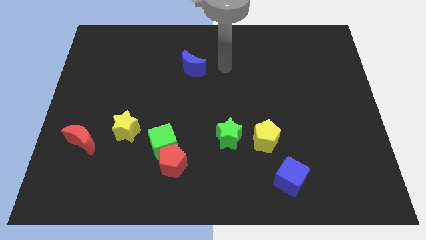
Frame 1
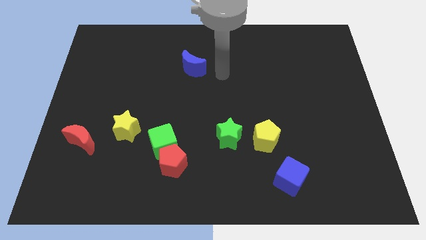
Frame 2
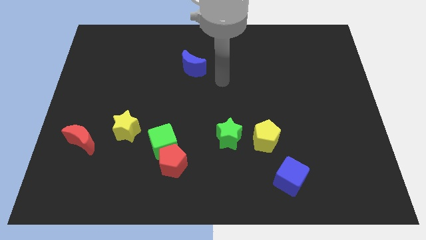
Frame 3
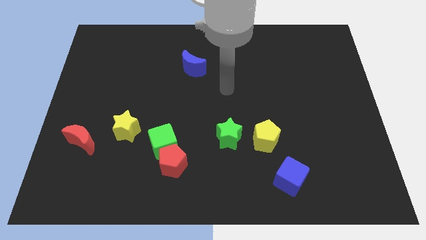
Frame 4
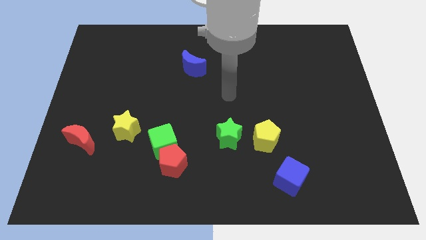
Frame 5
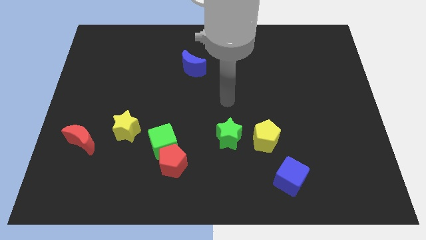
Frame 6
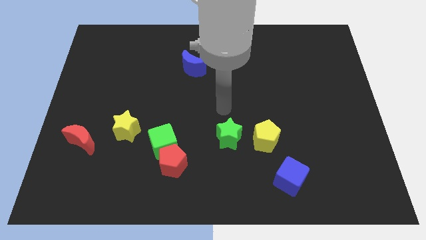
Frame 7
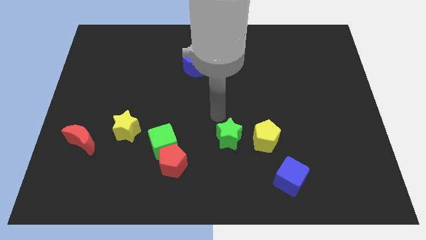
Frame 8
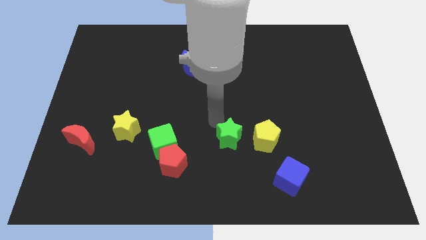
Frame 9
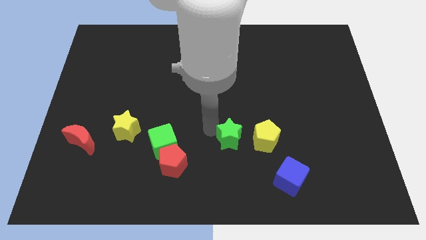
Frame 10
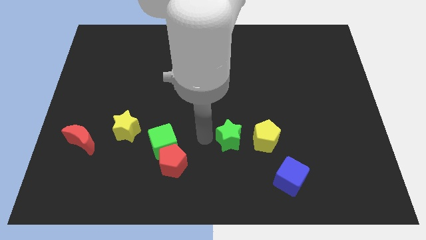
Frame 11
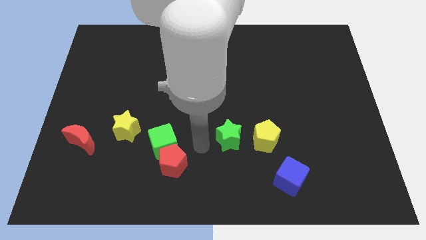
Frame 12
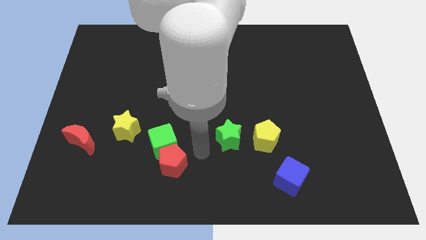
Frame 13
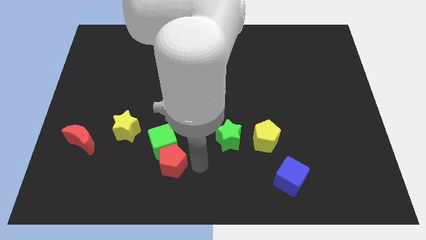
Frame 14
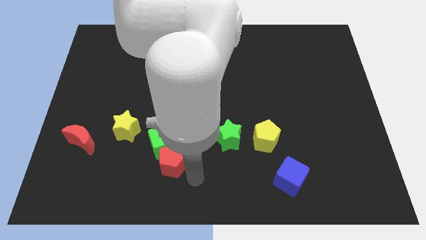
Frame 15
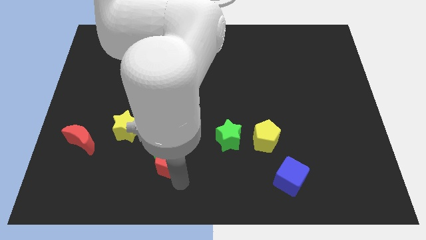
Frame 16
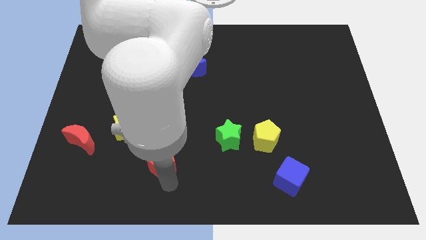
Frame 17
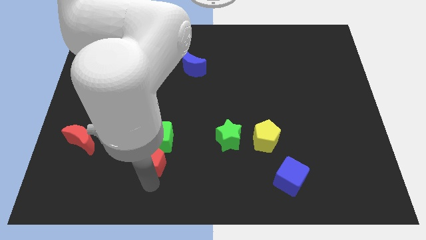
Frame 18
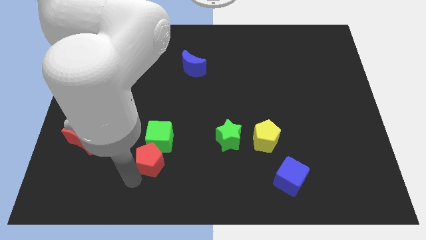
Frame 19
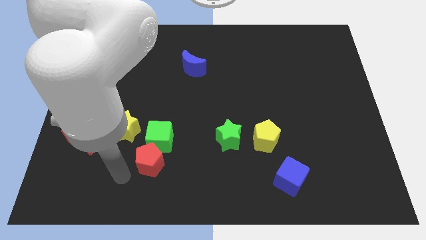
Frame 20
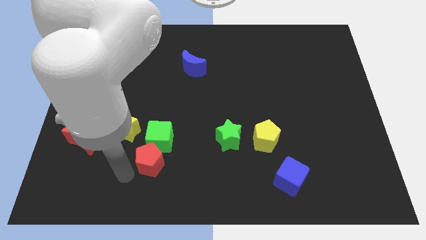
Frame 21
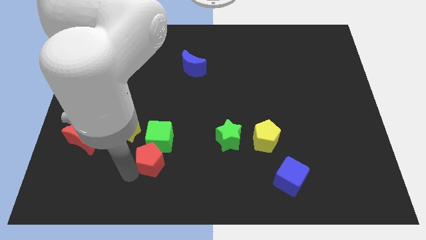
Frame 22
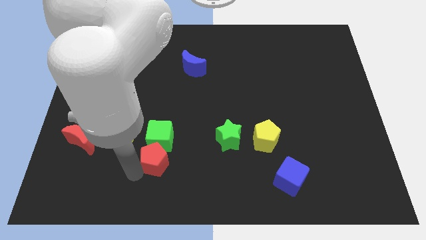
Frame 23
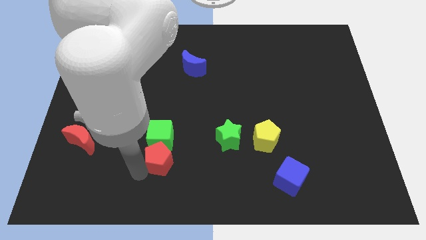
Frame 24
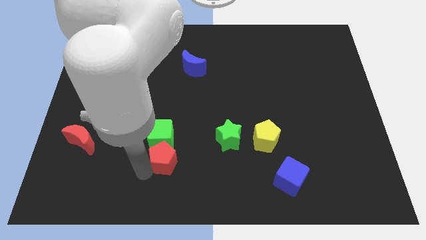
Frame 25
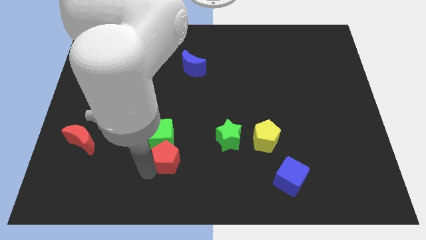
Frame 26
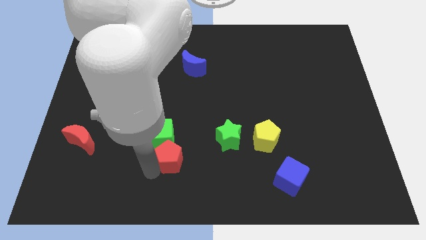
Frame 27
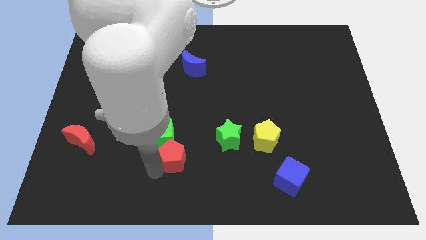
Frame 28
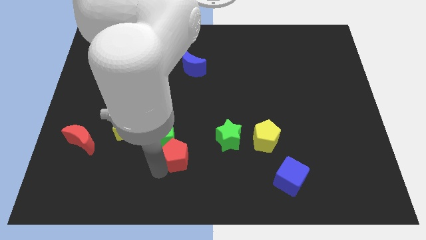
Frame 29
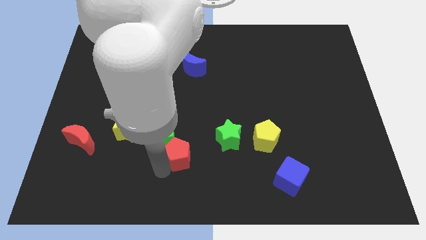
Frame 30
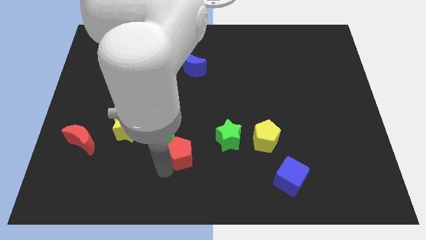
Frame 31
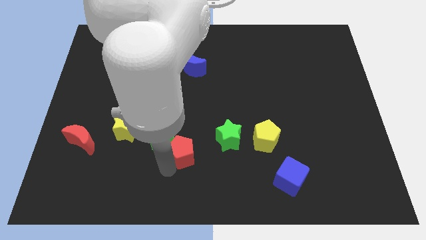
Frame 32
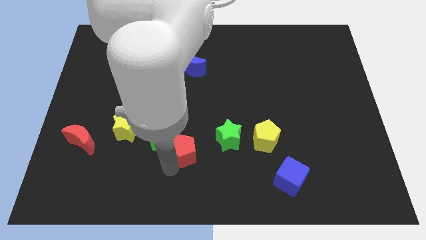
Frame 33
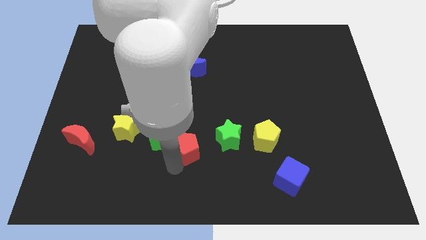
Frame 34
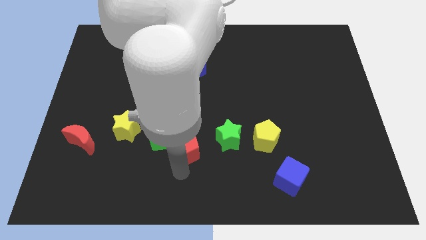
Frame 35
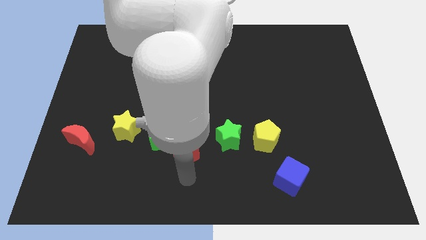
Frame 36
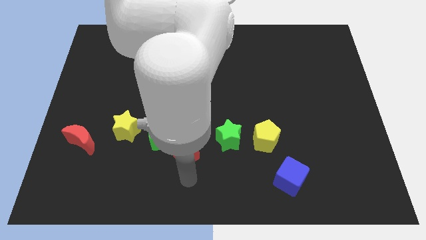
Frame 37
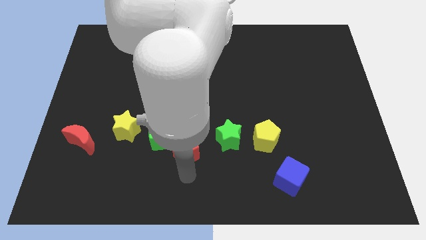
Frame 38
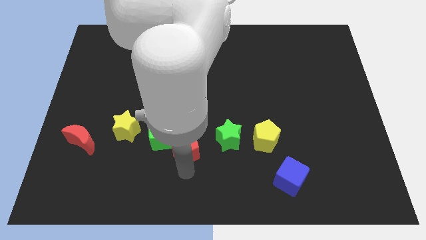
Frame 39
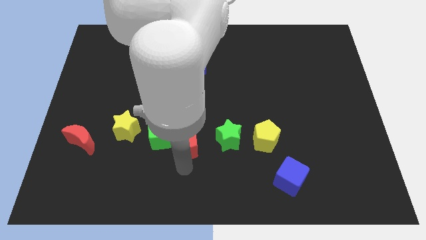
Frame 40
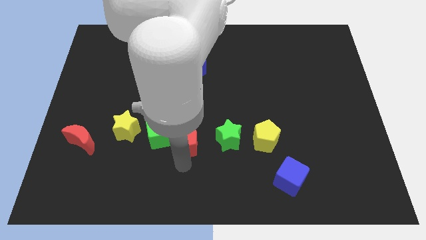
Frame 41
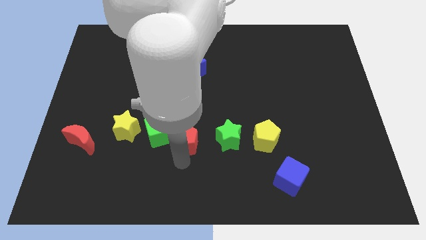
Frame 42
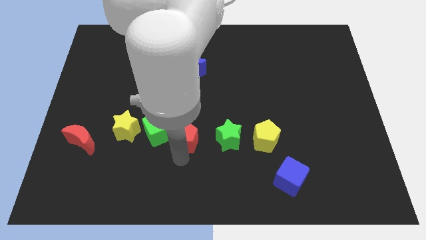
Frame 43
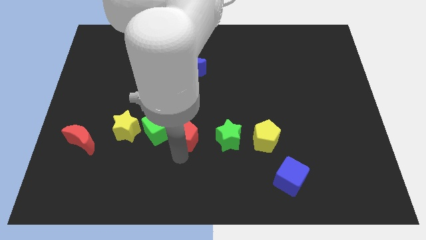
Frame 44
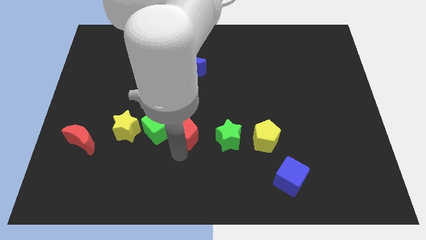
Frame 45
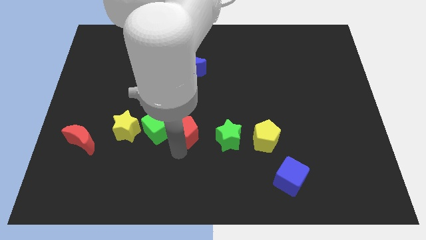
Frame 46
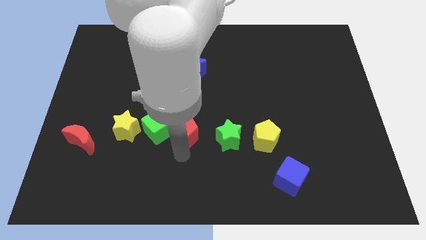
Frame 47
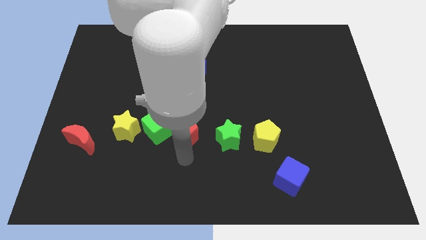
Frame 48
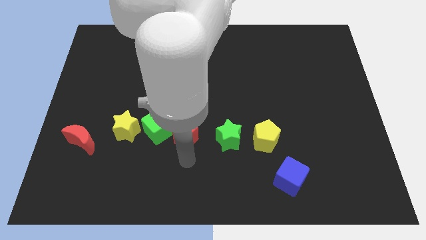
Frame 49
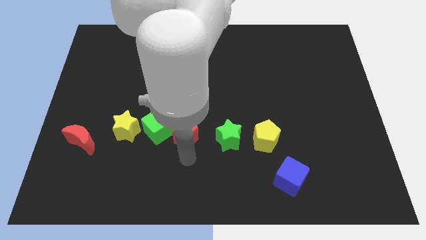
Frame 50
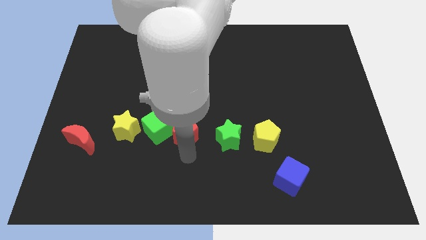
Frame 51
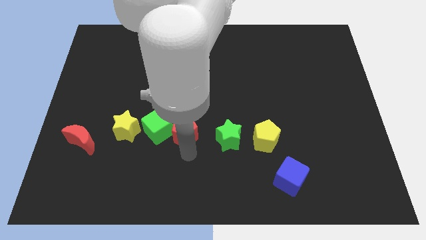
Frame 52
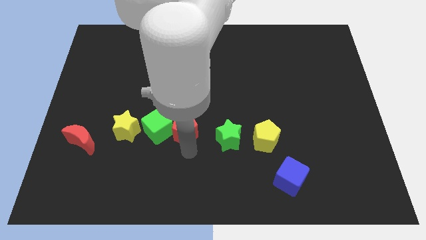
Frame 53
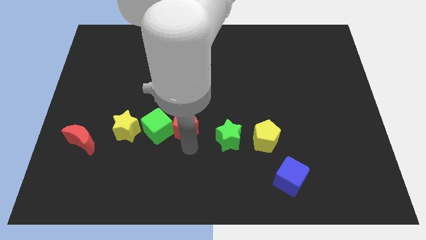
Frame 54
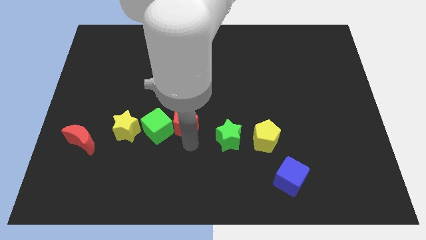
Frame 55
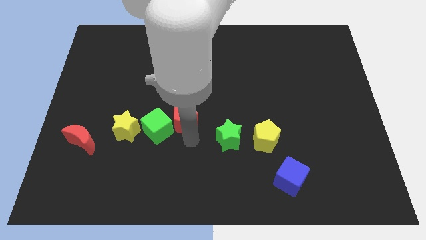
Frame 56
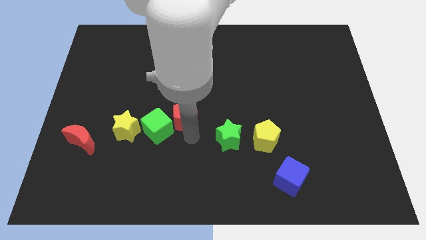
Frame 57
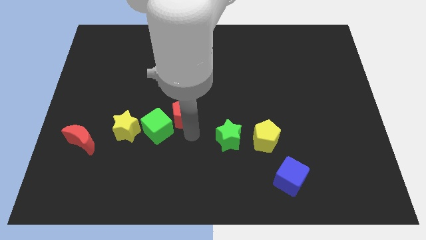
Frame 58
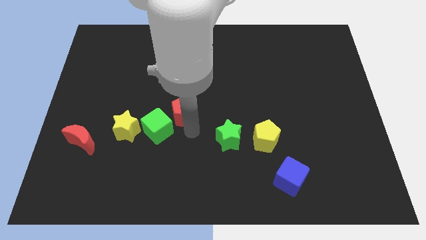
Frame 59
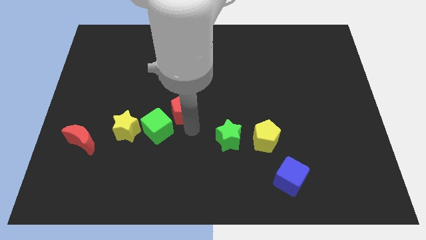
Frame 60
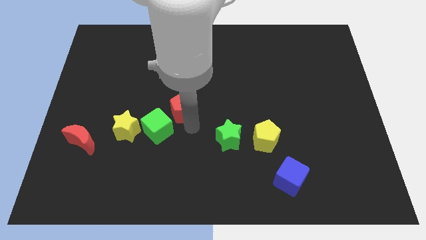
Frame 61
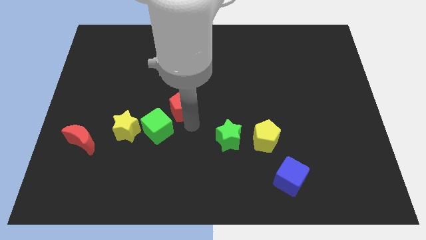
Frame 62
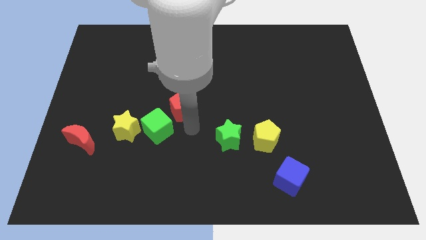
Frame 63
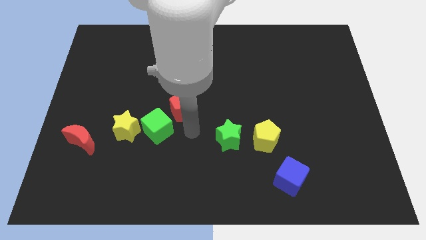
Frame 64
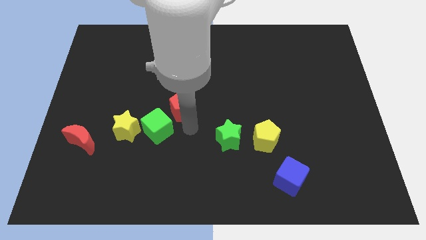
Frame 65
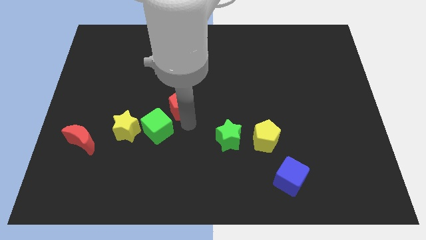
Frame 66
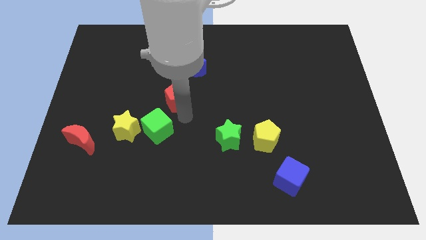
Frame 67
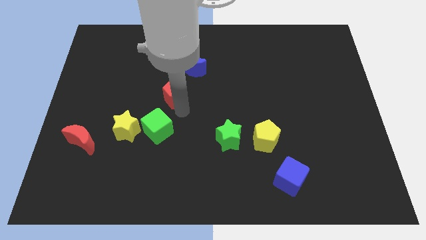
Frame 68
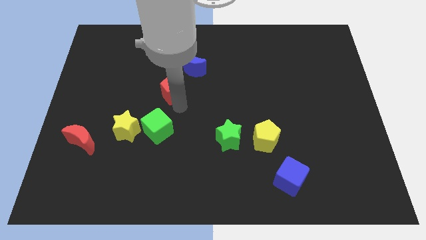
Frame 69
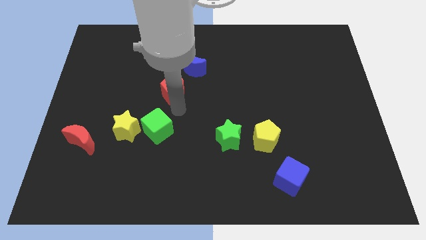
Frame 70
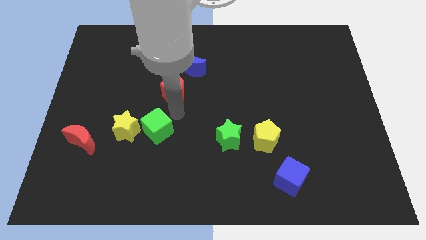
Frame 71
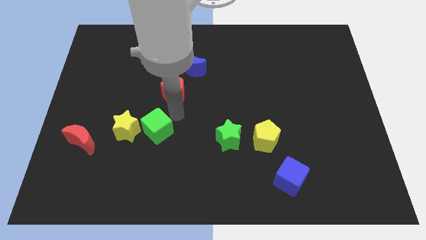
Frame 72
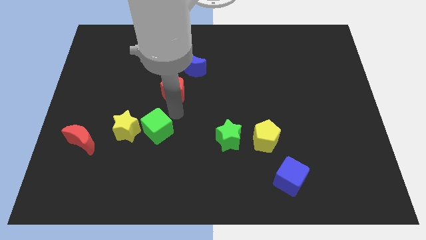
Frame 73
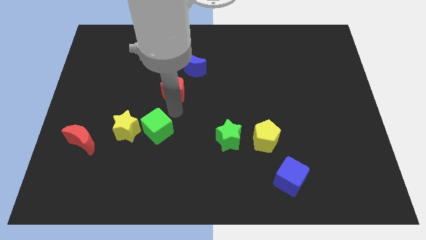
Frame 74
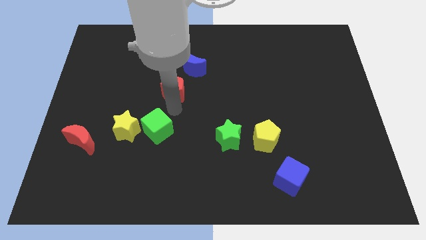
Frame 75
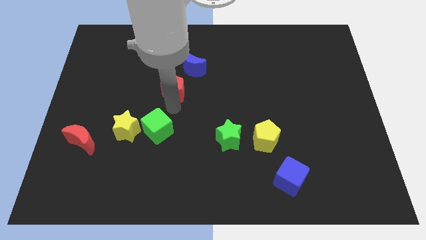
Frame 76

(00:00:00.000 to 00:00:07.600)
move the red pentagon up

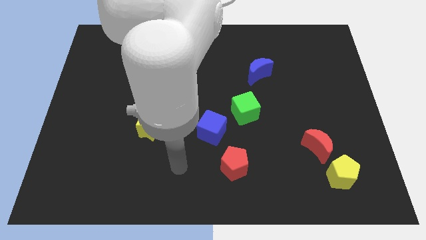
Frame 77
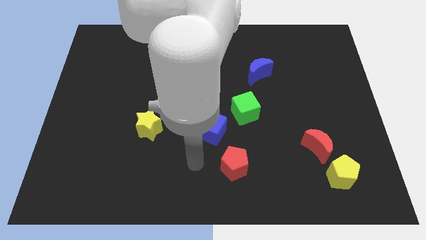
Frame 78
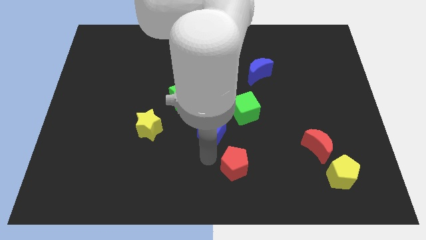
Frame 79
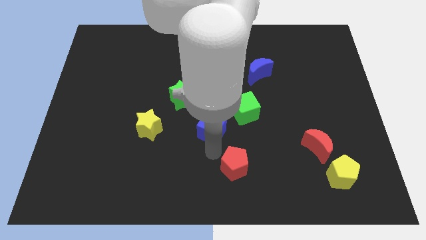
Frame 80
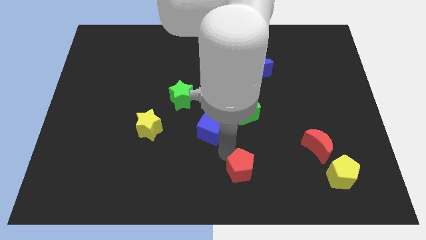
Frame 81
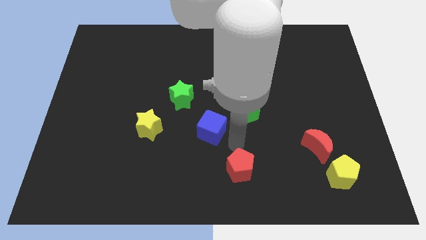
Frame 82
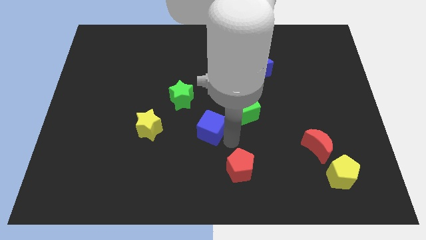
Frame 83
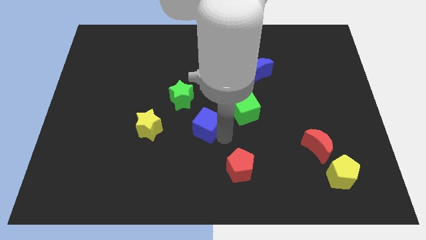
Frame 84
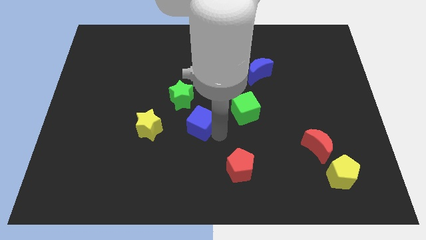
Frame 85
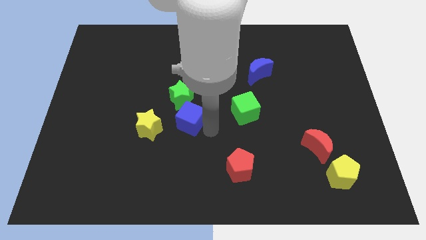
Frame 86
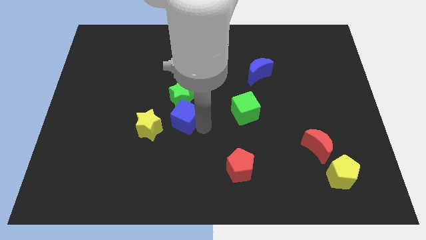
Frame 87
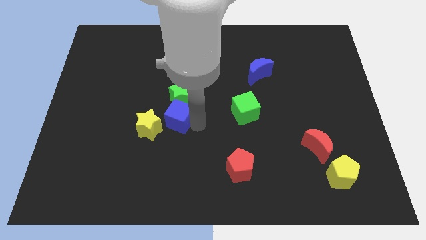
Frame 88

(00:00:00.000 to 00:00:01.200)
push the blue cube diagonally upwards and to the left slightly
